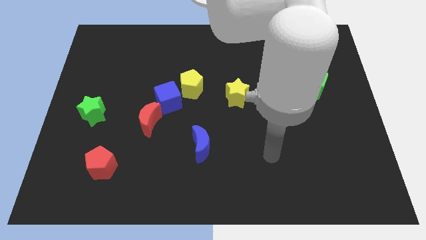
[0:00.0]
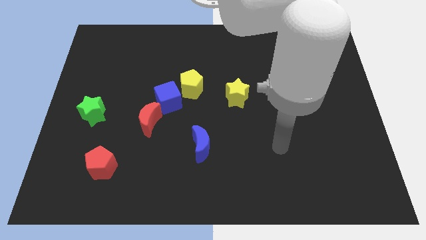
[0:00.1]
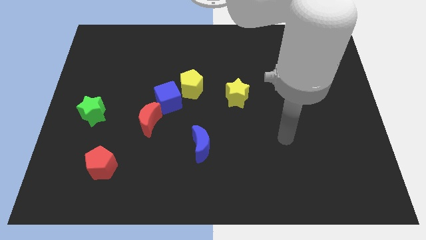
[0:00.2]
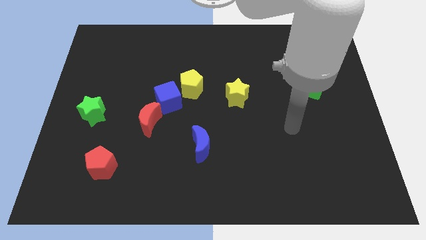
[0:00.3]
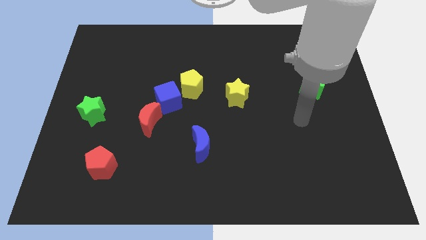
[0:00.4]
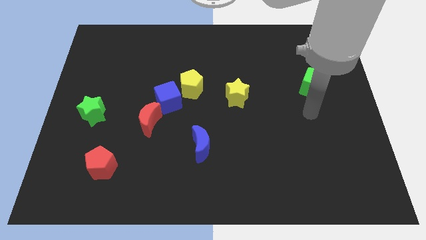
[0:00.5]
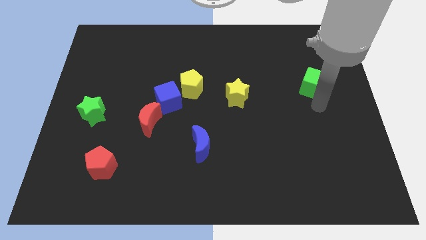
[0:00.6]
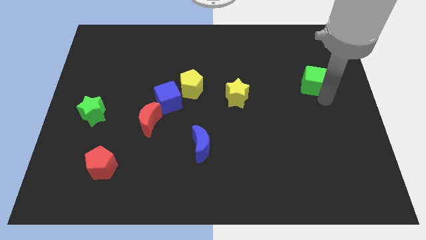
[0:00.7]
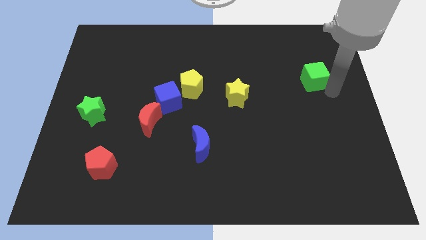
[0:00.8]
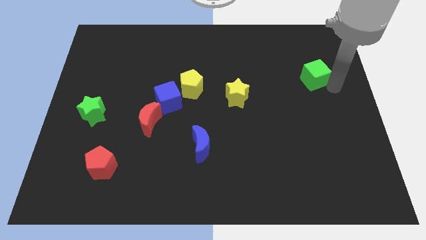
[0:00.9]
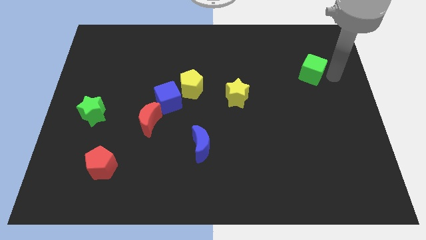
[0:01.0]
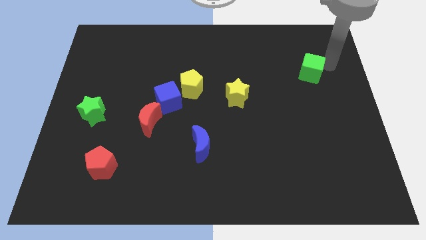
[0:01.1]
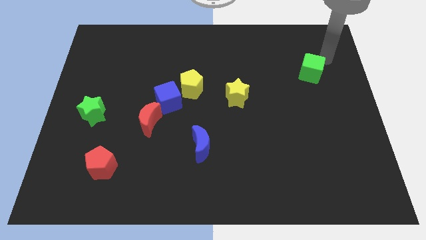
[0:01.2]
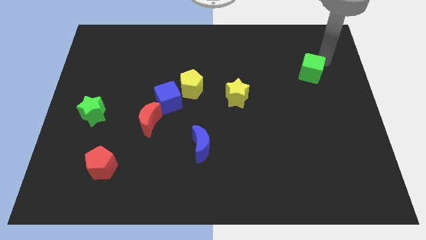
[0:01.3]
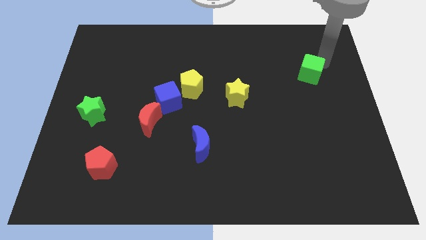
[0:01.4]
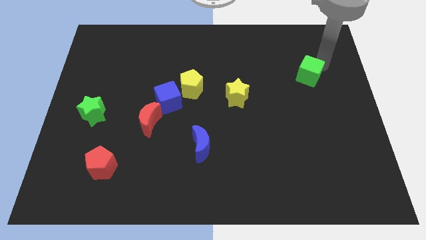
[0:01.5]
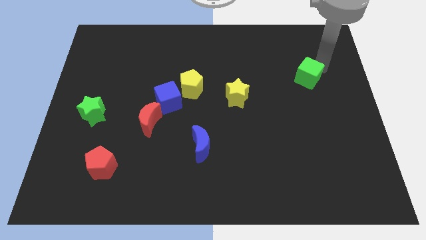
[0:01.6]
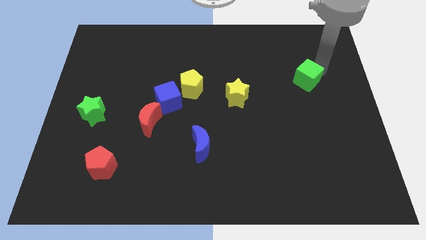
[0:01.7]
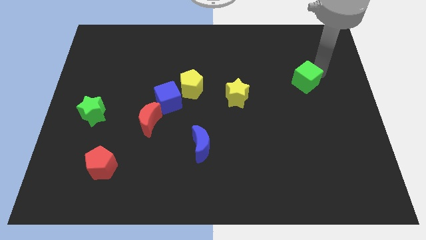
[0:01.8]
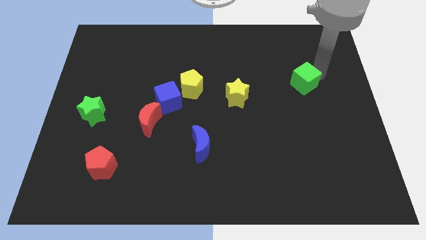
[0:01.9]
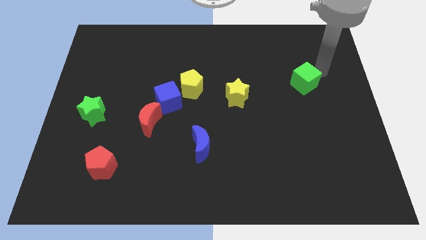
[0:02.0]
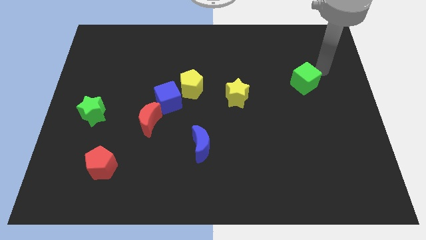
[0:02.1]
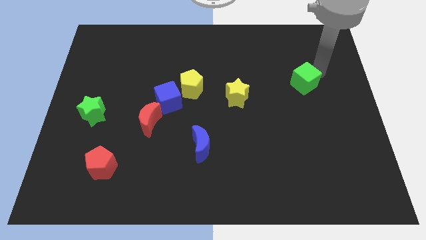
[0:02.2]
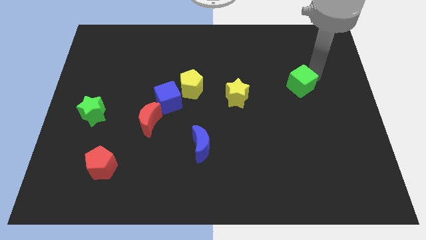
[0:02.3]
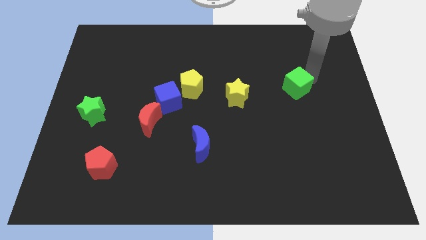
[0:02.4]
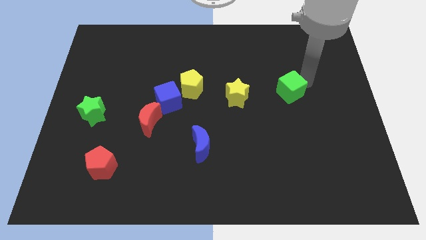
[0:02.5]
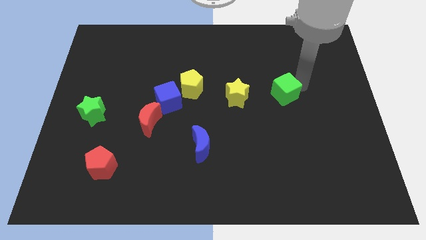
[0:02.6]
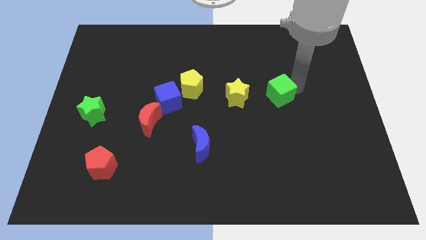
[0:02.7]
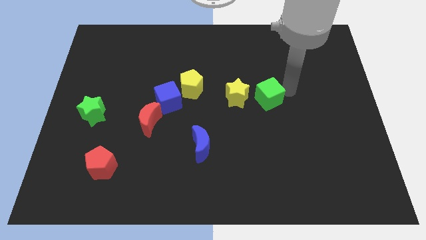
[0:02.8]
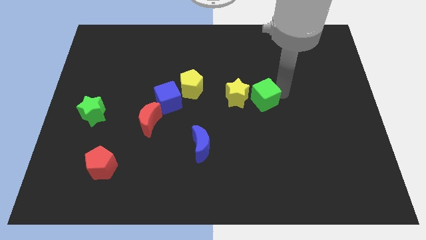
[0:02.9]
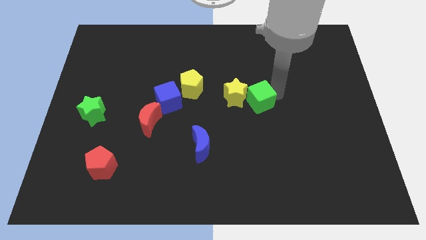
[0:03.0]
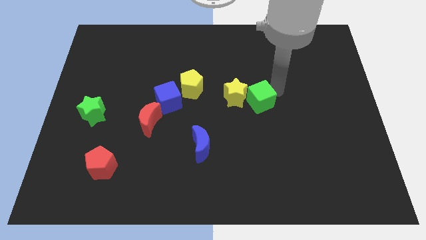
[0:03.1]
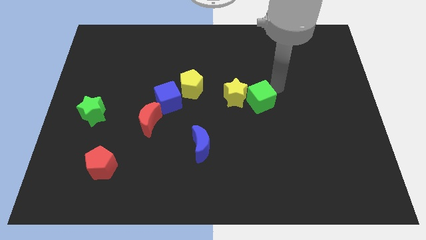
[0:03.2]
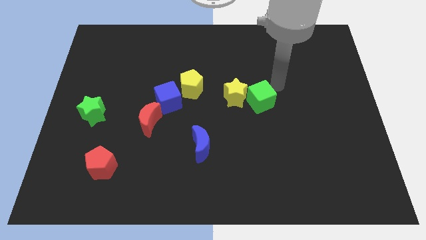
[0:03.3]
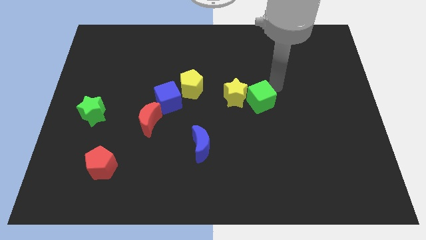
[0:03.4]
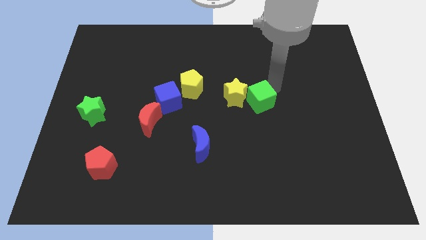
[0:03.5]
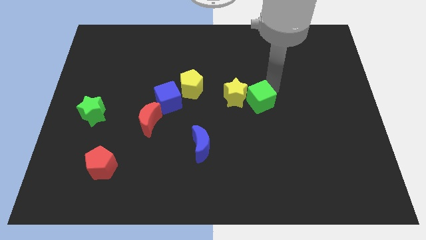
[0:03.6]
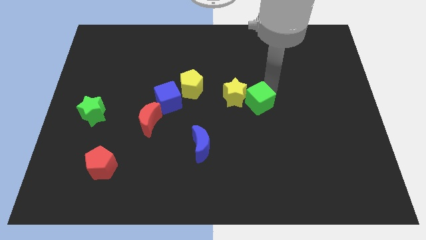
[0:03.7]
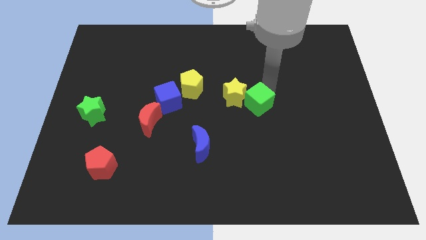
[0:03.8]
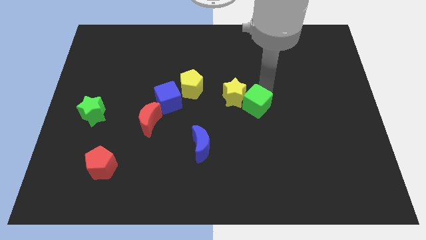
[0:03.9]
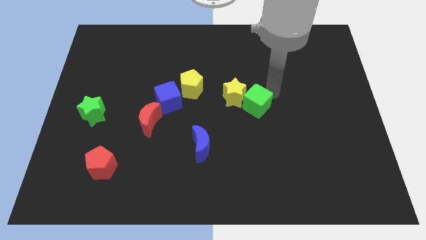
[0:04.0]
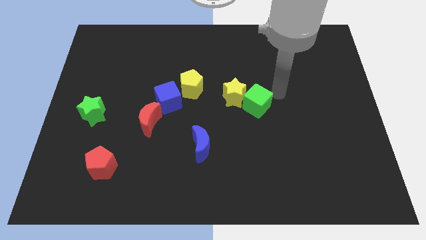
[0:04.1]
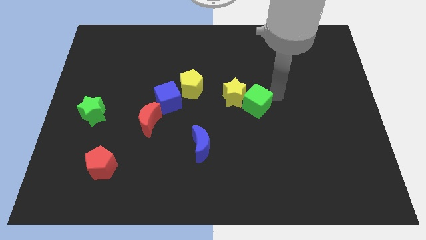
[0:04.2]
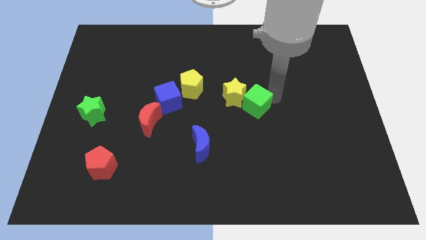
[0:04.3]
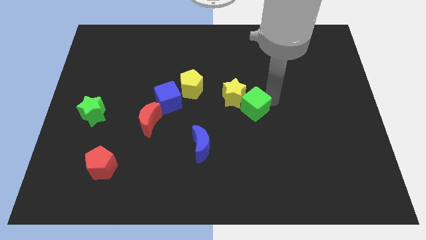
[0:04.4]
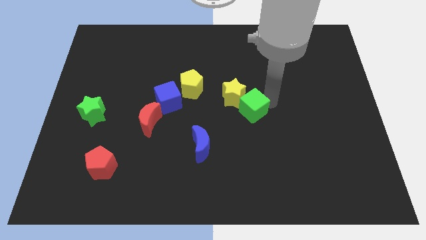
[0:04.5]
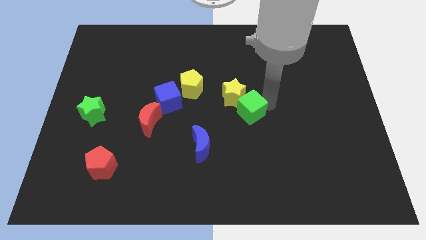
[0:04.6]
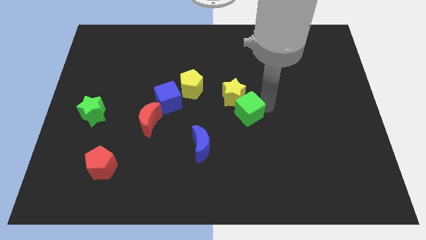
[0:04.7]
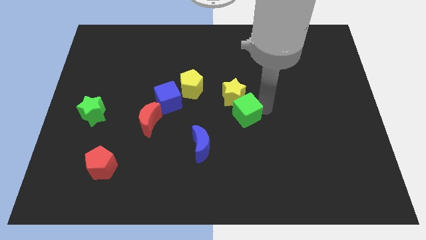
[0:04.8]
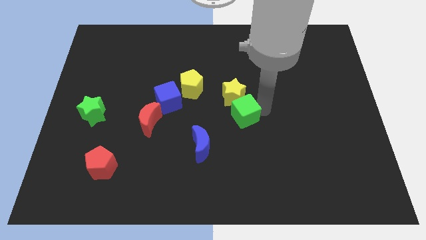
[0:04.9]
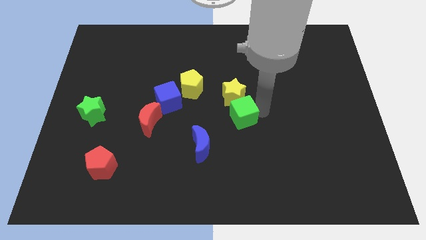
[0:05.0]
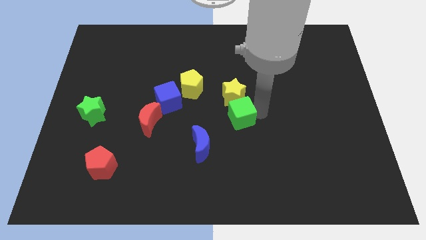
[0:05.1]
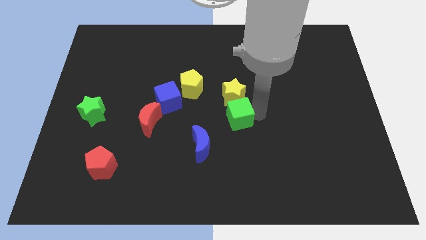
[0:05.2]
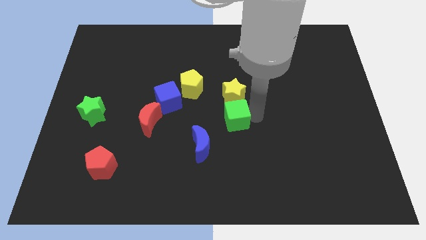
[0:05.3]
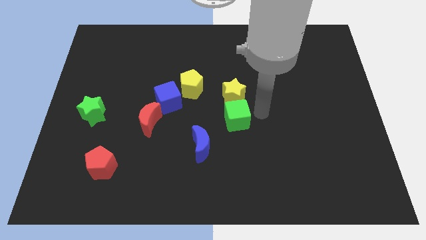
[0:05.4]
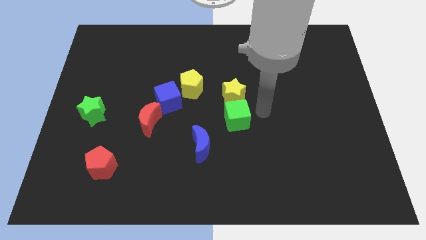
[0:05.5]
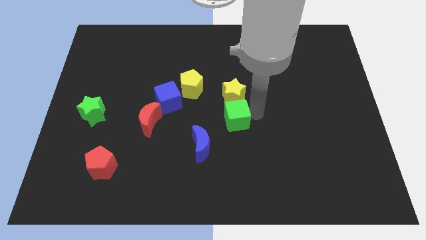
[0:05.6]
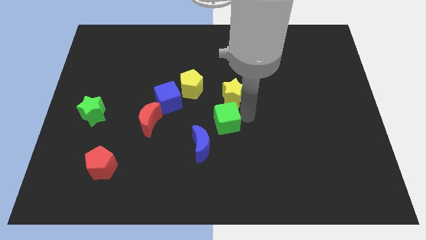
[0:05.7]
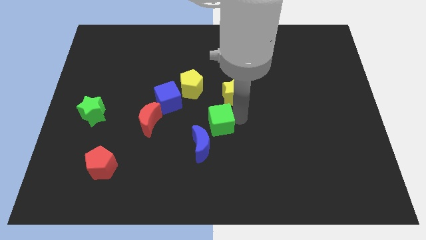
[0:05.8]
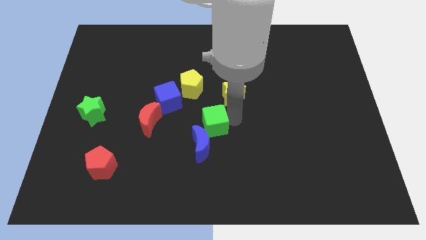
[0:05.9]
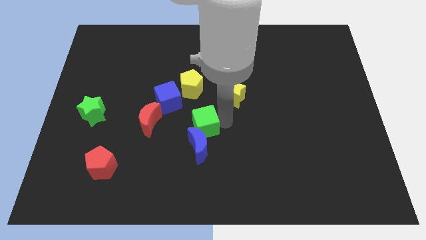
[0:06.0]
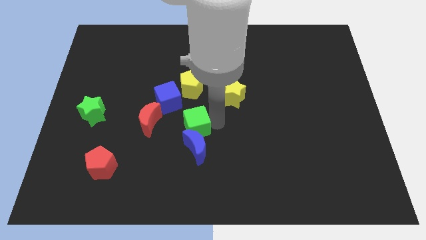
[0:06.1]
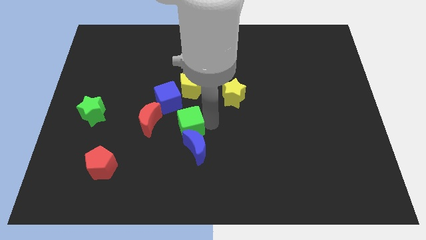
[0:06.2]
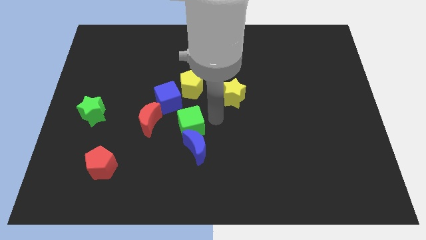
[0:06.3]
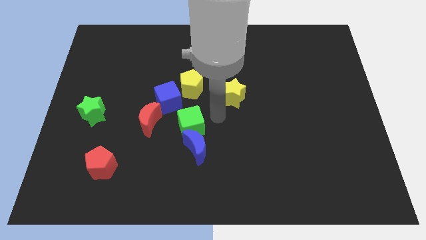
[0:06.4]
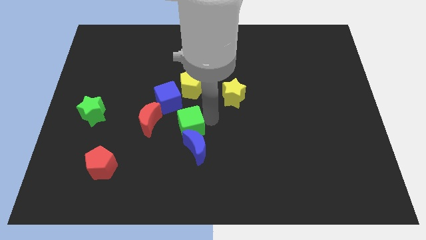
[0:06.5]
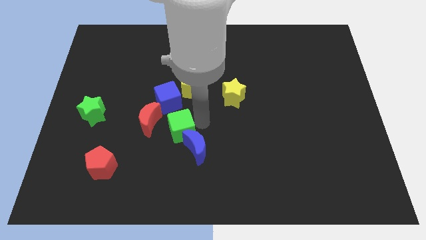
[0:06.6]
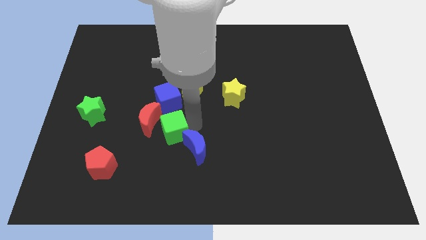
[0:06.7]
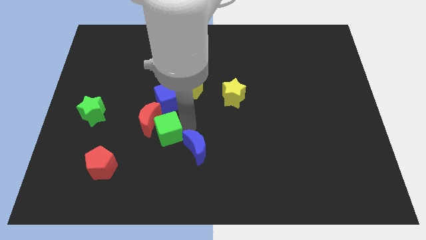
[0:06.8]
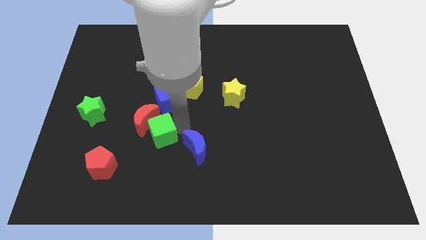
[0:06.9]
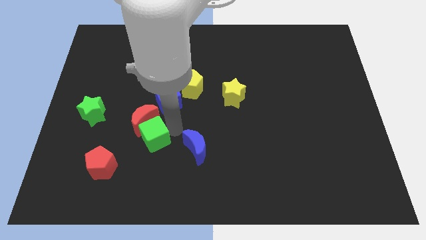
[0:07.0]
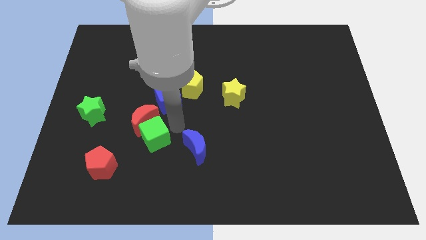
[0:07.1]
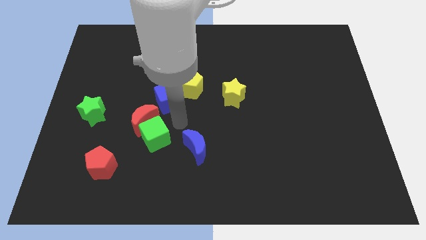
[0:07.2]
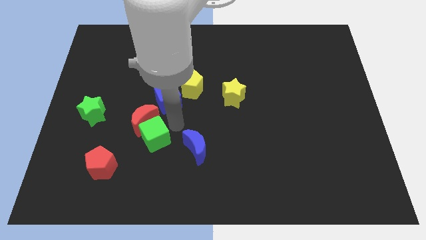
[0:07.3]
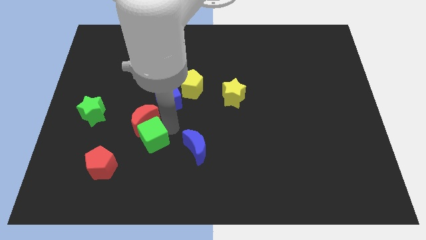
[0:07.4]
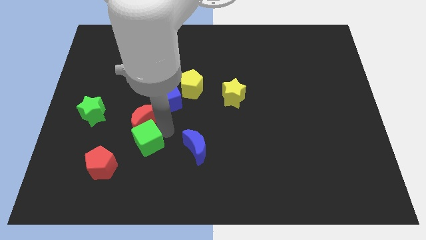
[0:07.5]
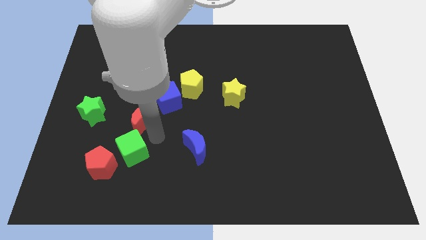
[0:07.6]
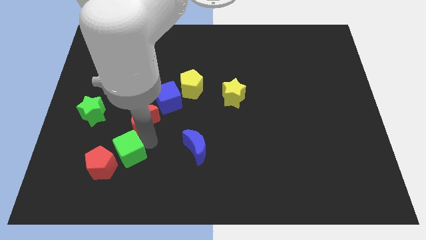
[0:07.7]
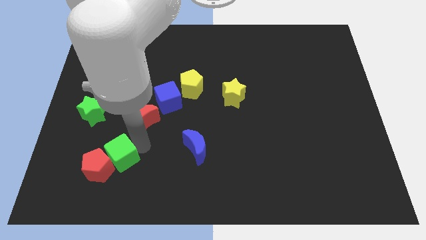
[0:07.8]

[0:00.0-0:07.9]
slide the green cube next to the red pentagon

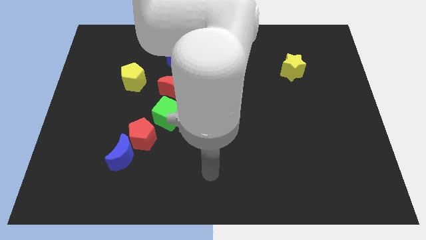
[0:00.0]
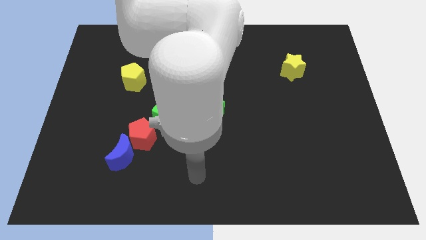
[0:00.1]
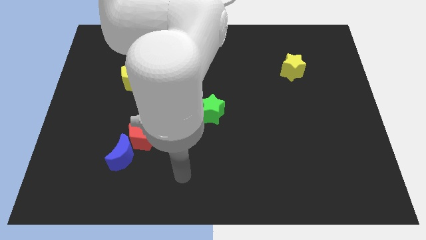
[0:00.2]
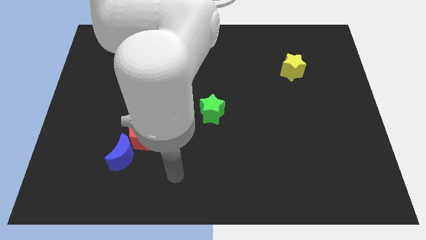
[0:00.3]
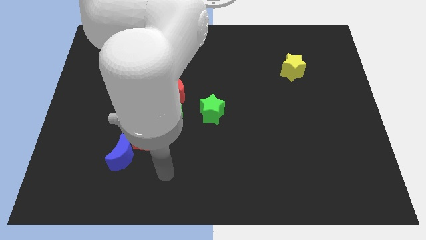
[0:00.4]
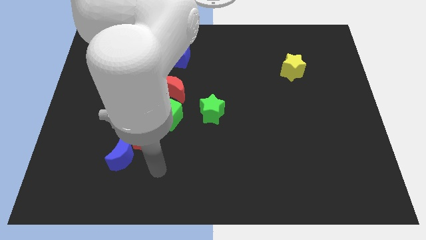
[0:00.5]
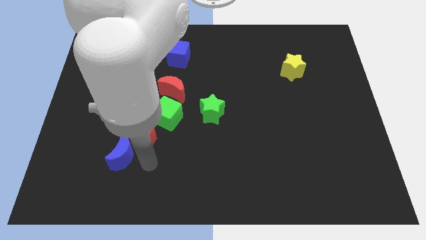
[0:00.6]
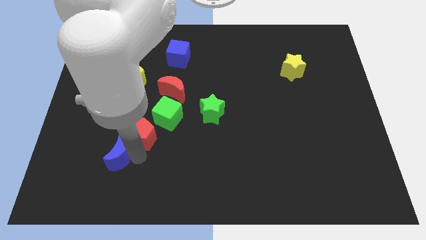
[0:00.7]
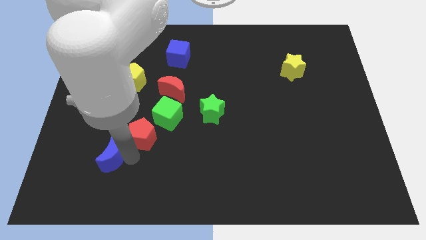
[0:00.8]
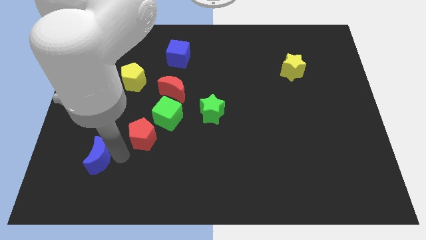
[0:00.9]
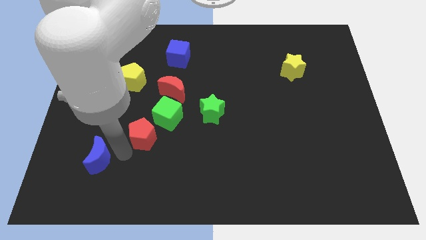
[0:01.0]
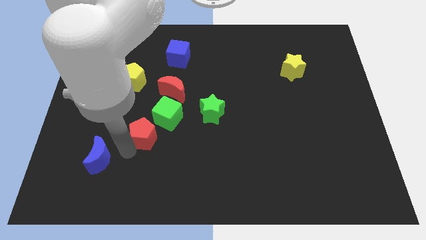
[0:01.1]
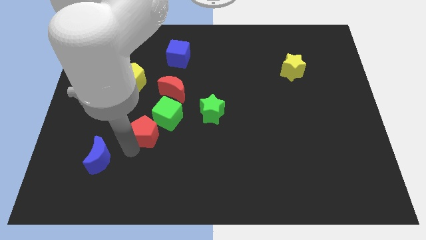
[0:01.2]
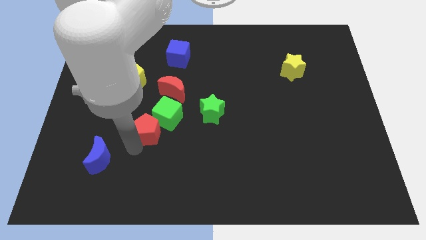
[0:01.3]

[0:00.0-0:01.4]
slide the red pentagon close to the green cube
